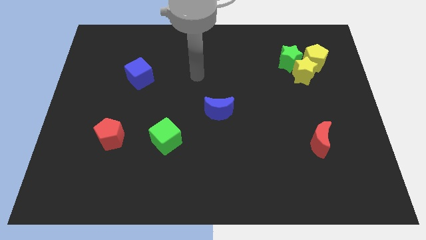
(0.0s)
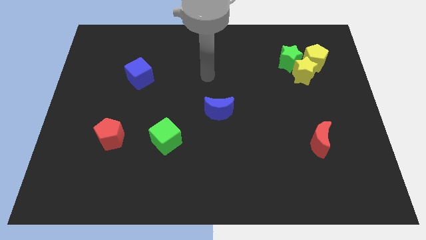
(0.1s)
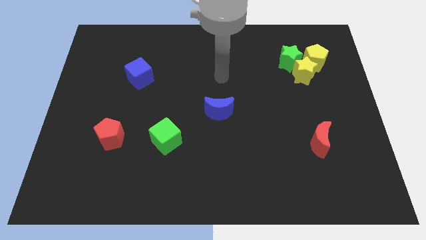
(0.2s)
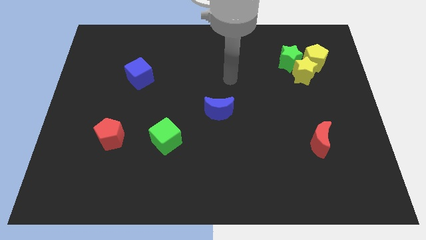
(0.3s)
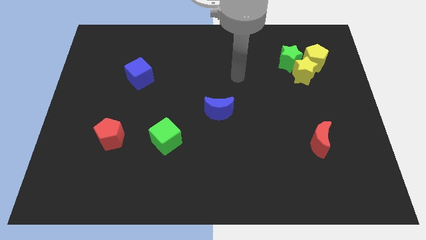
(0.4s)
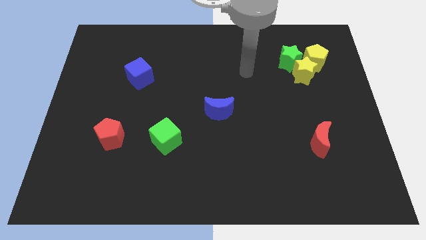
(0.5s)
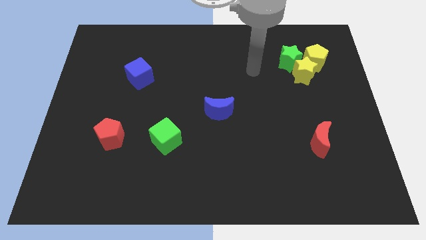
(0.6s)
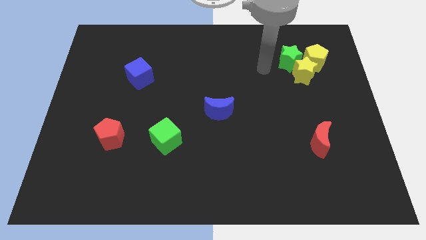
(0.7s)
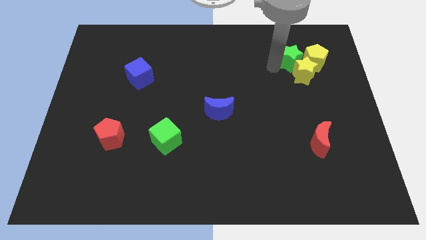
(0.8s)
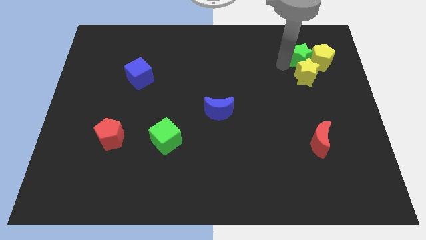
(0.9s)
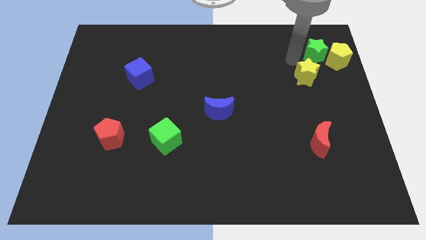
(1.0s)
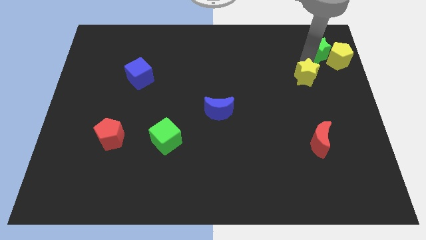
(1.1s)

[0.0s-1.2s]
pull the yellow star apart from the green star and yellow pentagon

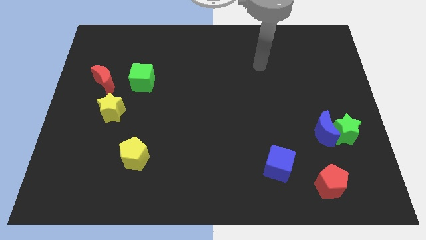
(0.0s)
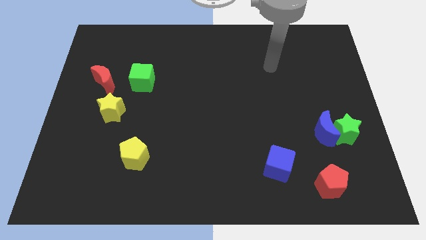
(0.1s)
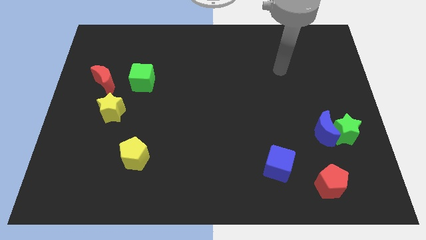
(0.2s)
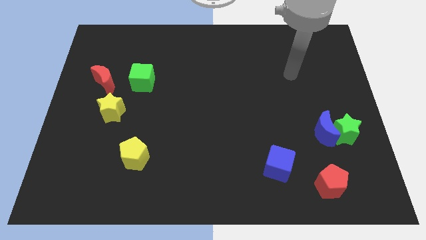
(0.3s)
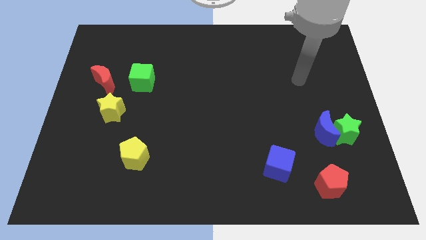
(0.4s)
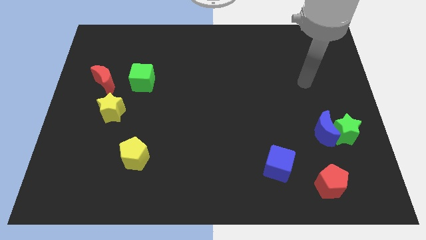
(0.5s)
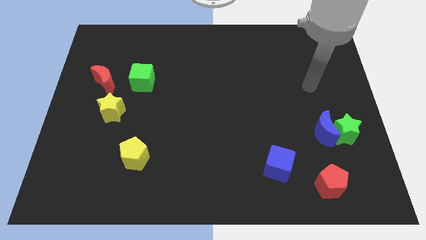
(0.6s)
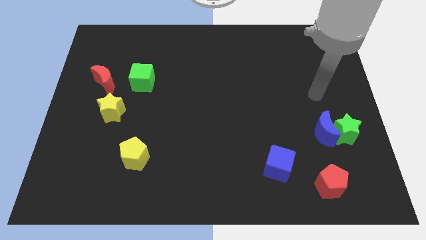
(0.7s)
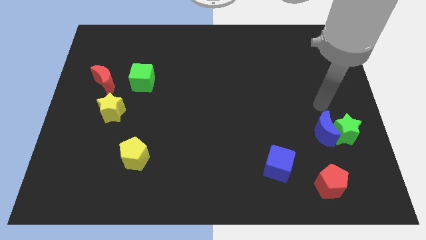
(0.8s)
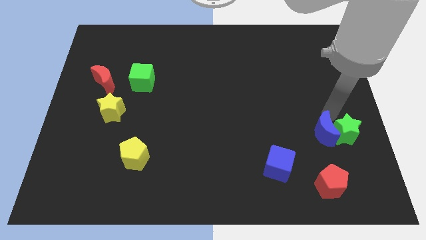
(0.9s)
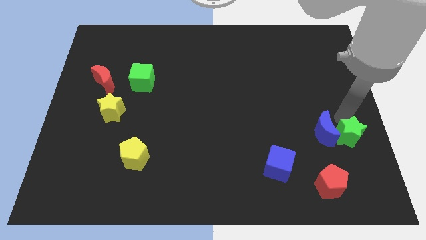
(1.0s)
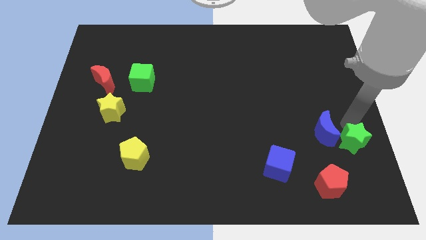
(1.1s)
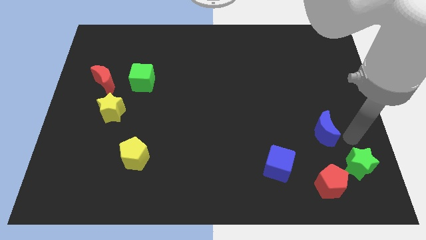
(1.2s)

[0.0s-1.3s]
pull the blue moon apart from the green star

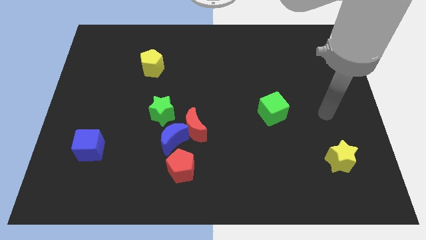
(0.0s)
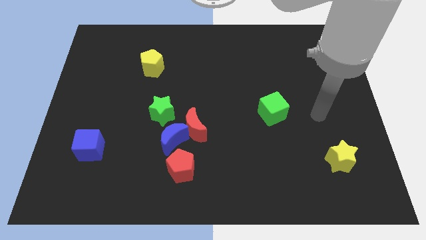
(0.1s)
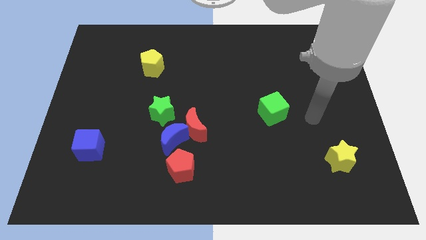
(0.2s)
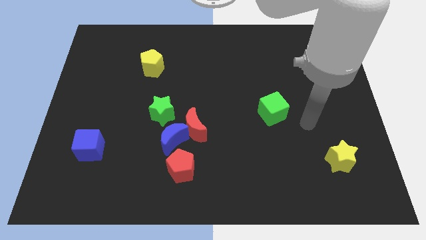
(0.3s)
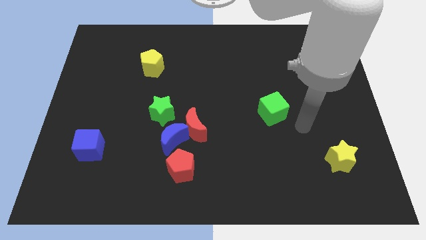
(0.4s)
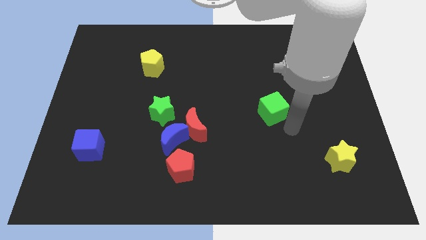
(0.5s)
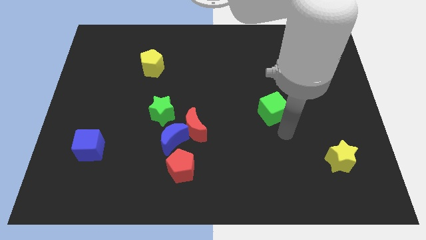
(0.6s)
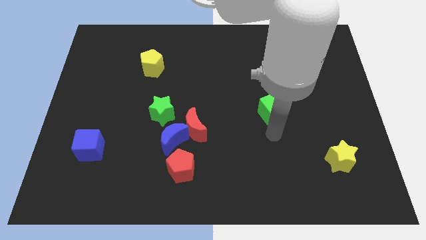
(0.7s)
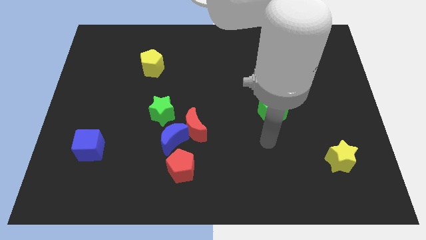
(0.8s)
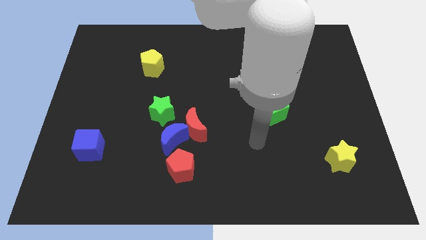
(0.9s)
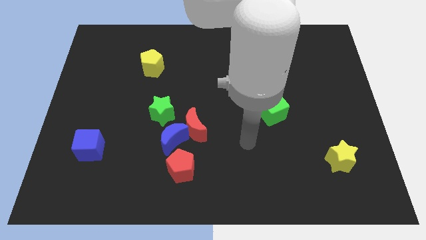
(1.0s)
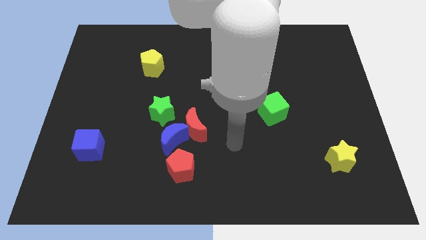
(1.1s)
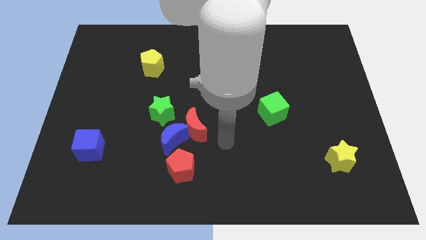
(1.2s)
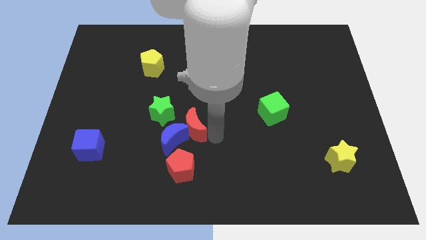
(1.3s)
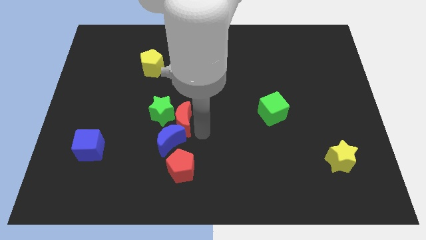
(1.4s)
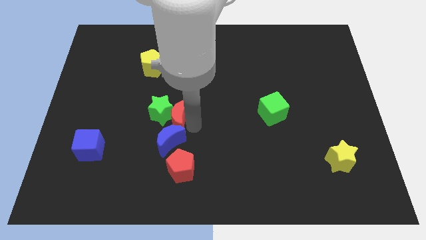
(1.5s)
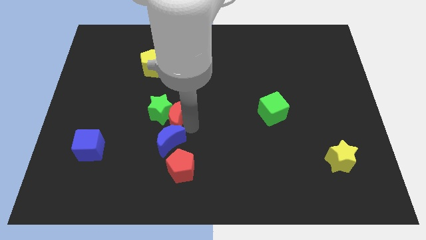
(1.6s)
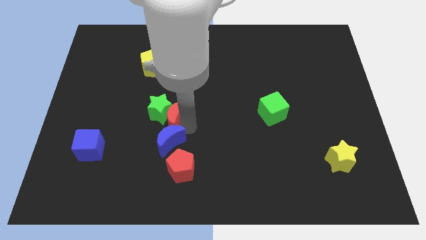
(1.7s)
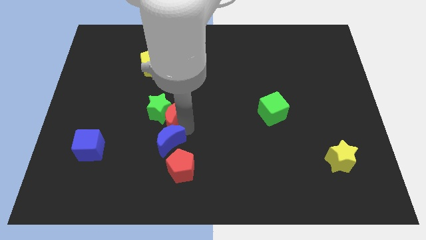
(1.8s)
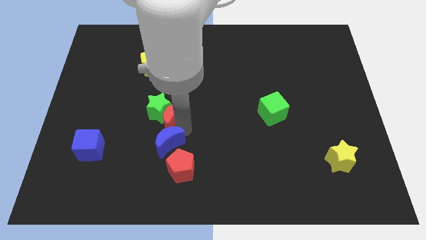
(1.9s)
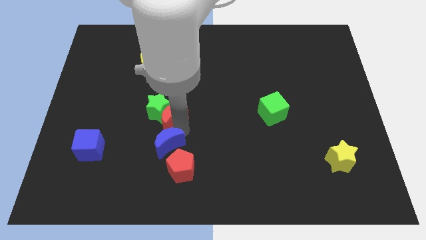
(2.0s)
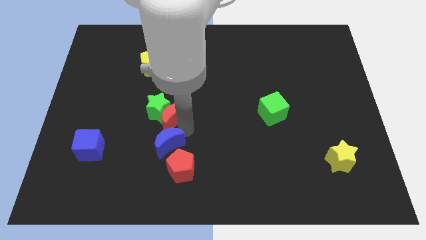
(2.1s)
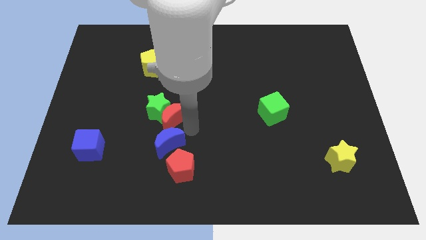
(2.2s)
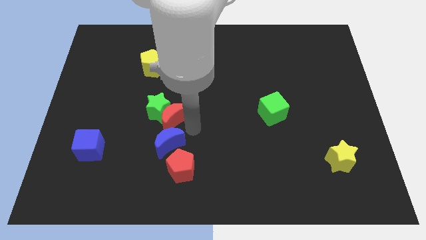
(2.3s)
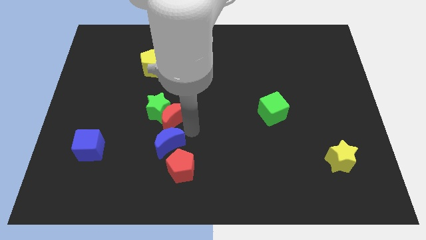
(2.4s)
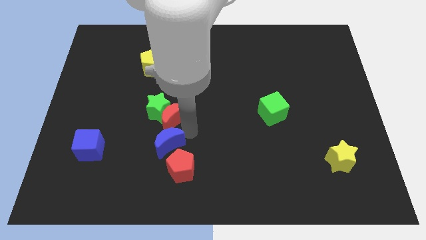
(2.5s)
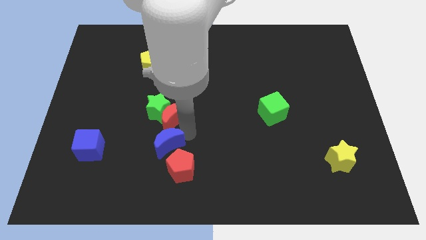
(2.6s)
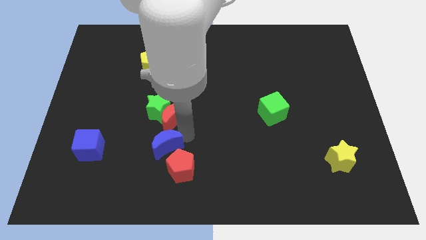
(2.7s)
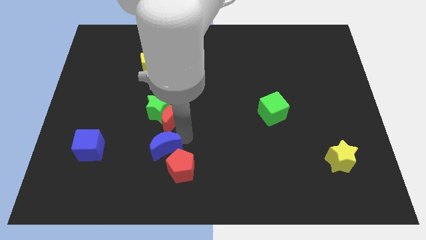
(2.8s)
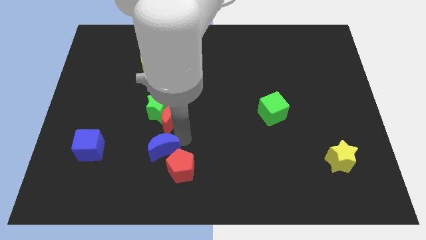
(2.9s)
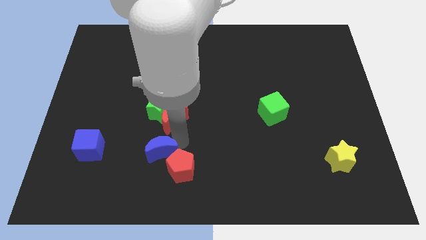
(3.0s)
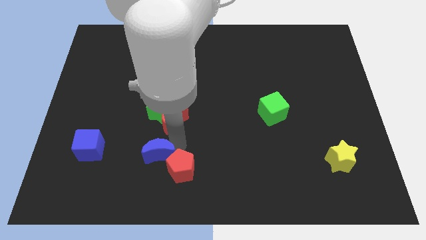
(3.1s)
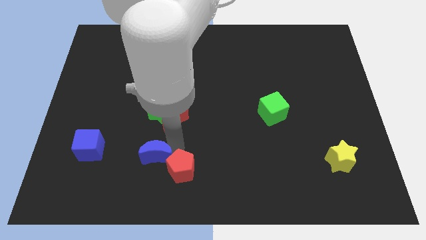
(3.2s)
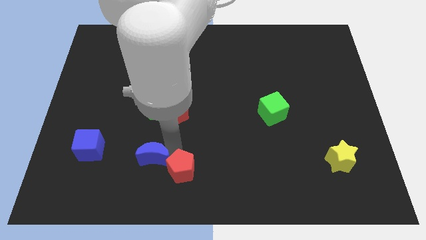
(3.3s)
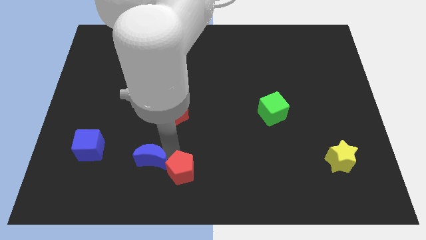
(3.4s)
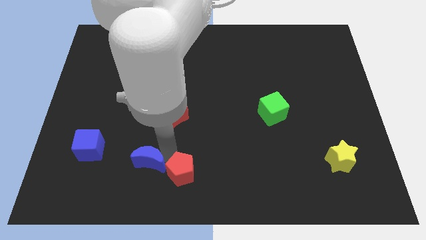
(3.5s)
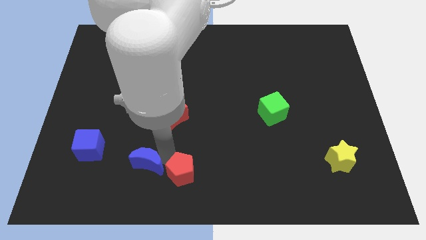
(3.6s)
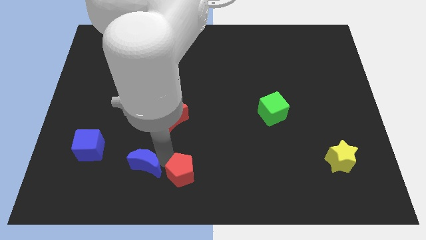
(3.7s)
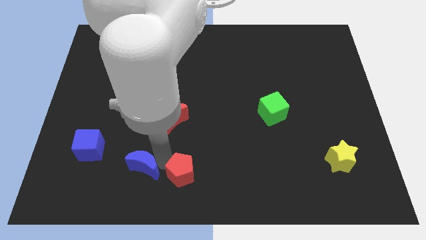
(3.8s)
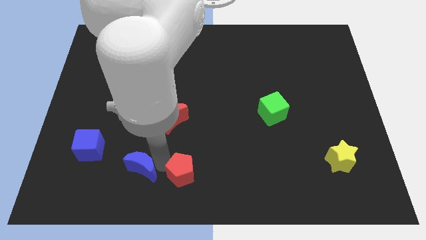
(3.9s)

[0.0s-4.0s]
separate the blue moon from the red moon, red pentagon, and green star

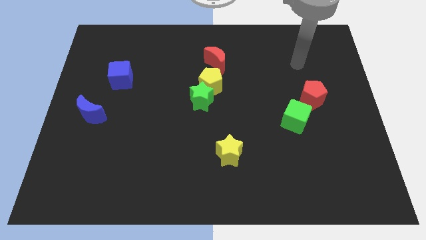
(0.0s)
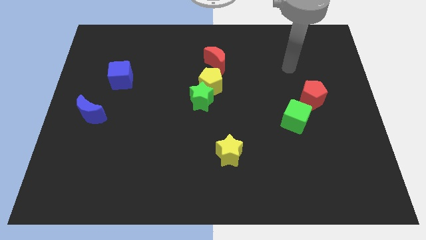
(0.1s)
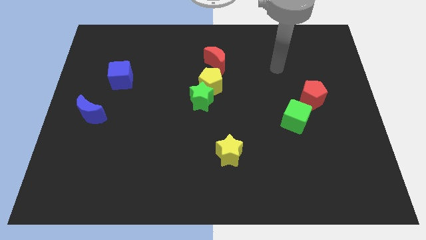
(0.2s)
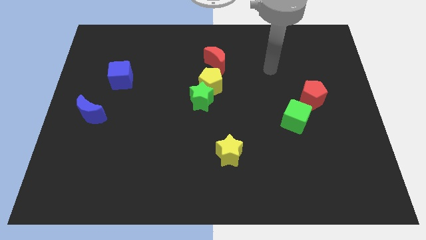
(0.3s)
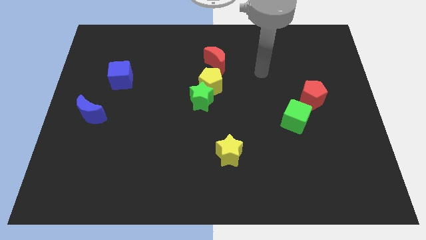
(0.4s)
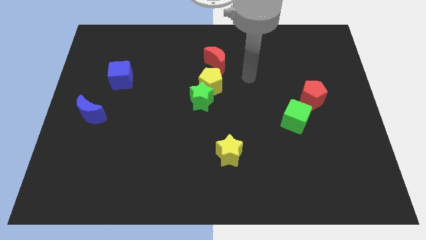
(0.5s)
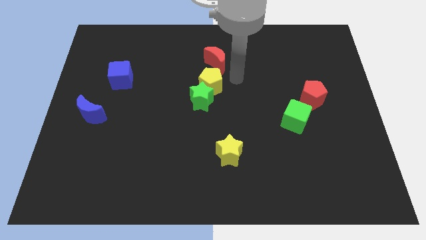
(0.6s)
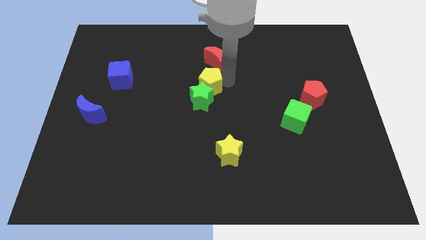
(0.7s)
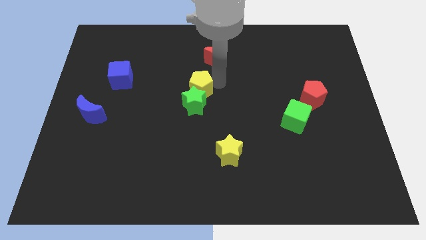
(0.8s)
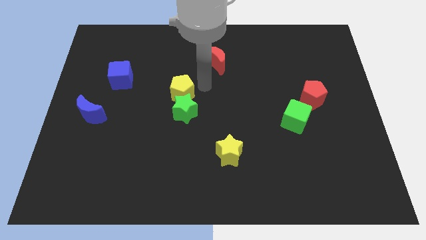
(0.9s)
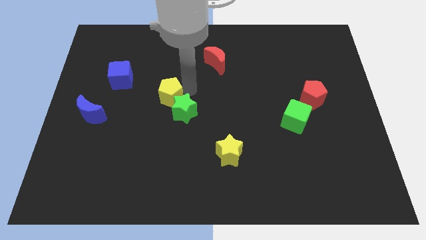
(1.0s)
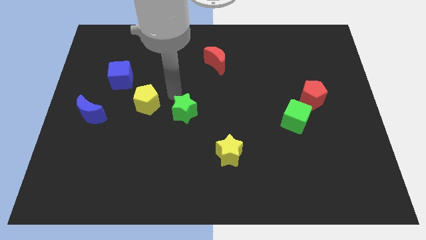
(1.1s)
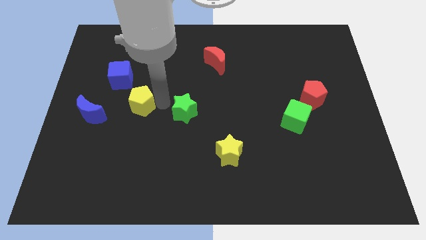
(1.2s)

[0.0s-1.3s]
move the green star away from the yellow pentagon

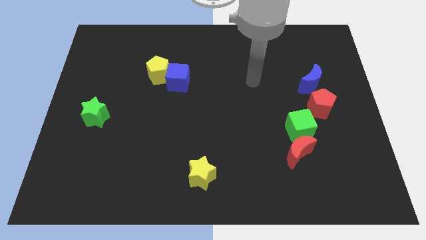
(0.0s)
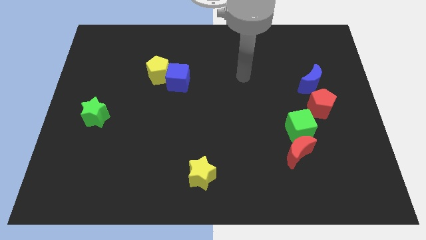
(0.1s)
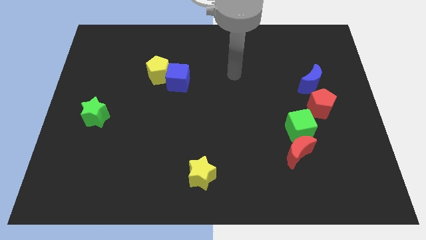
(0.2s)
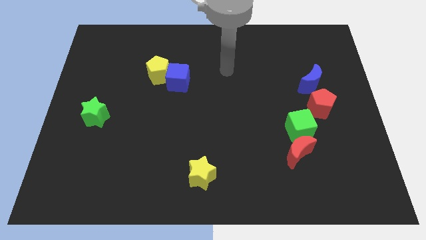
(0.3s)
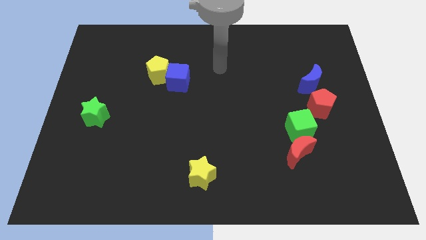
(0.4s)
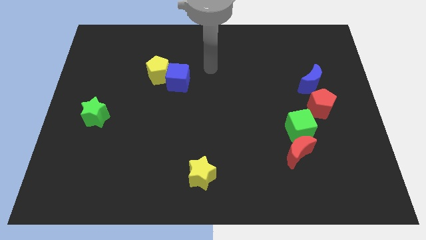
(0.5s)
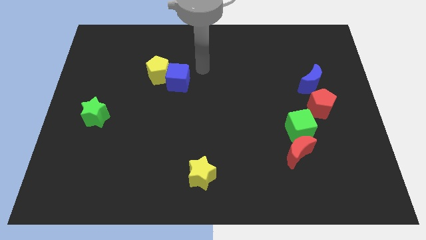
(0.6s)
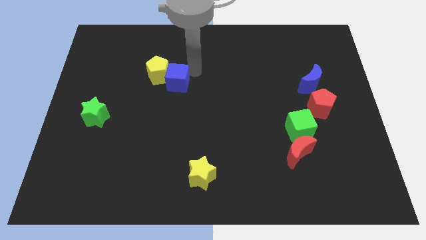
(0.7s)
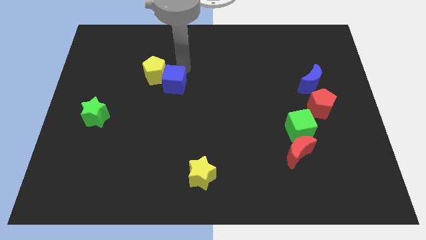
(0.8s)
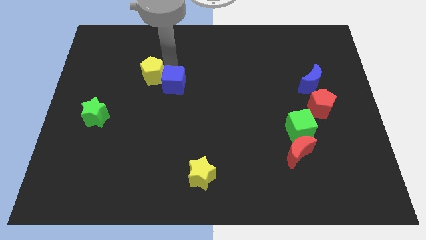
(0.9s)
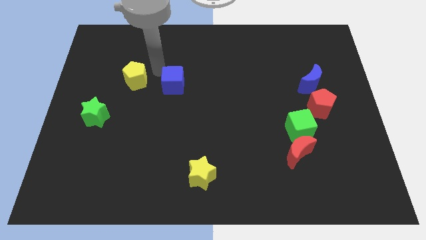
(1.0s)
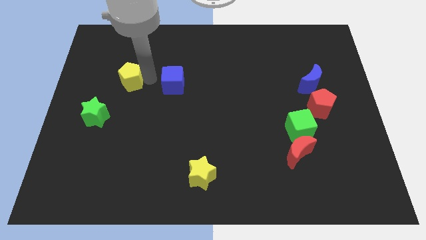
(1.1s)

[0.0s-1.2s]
separate the blue cube from the yellow pentagon
